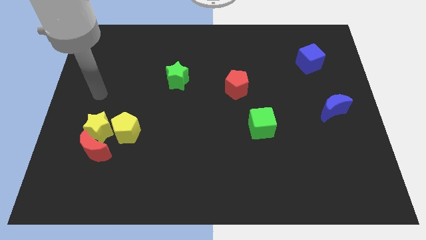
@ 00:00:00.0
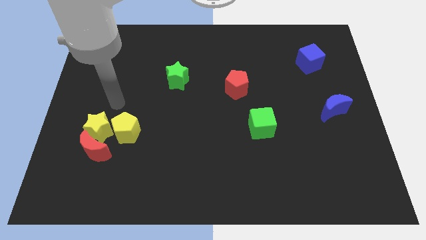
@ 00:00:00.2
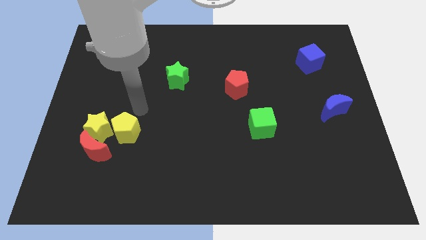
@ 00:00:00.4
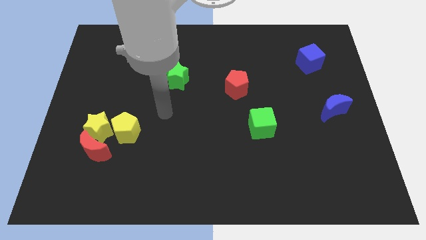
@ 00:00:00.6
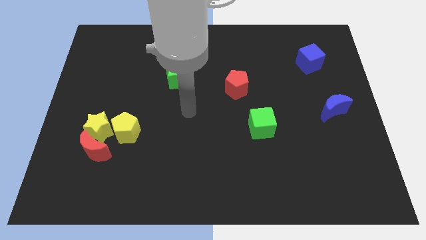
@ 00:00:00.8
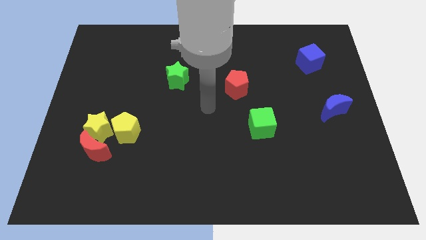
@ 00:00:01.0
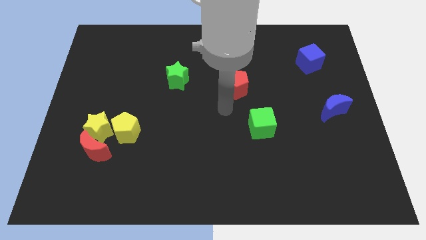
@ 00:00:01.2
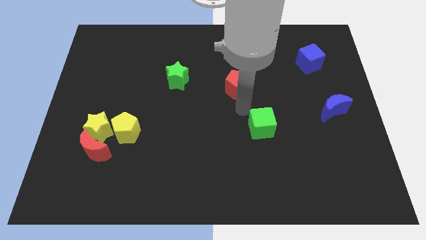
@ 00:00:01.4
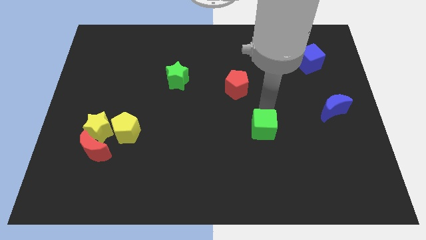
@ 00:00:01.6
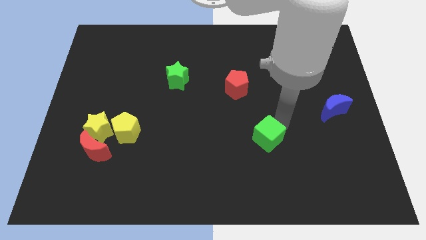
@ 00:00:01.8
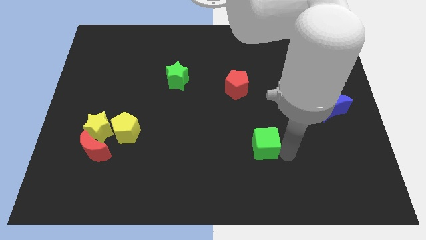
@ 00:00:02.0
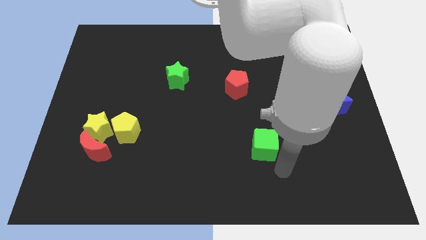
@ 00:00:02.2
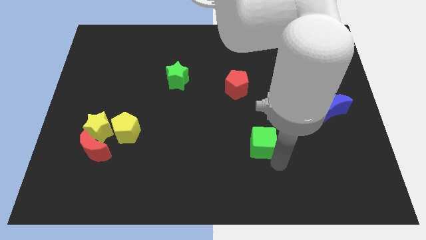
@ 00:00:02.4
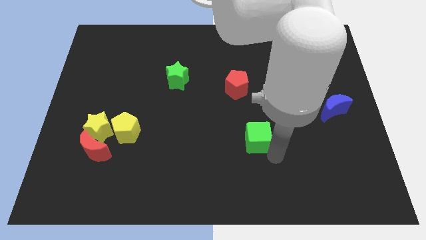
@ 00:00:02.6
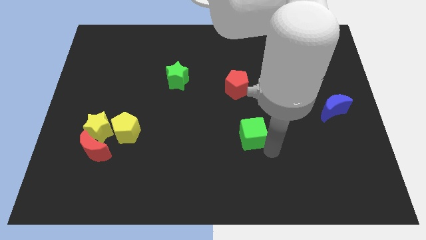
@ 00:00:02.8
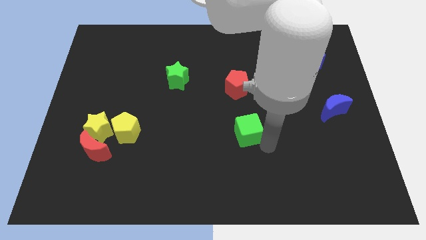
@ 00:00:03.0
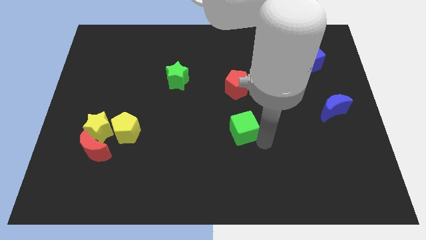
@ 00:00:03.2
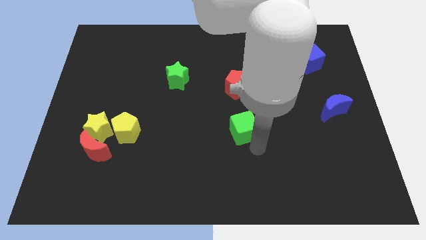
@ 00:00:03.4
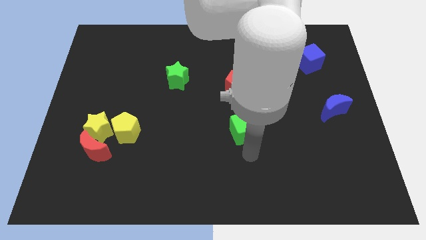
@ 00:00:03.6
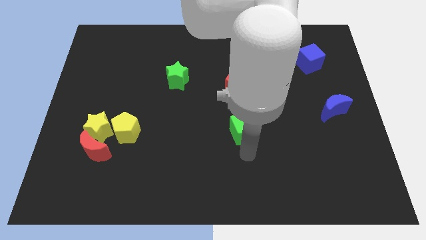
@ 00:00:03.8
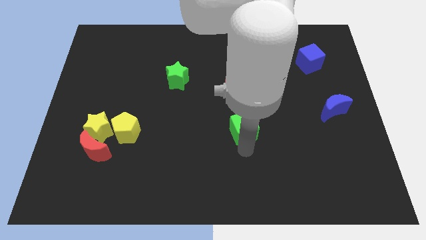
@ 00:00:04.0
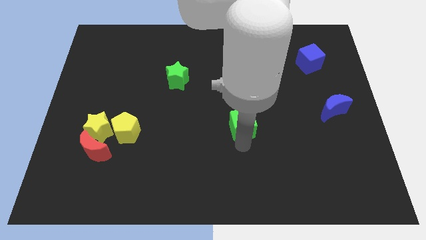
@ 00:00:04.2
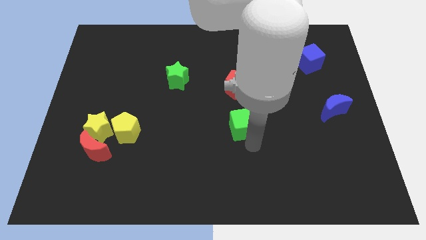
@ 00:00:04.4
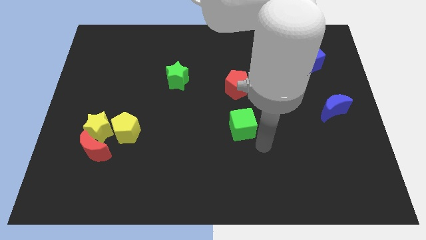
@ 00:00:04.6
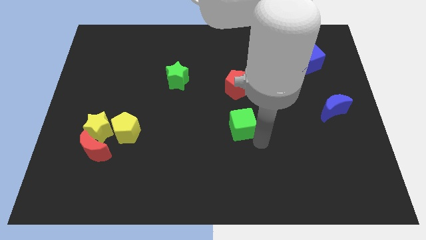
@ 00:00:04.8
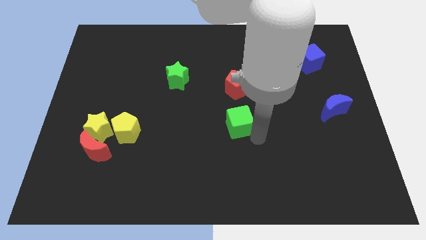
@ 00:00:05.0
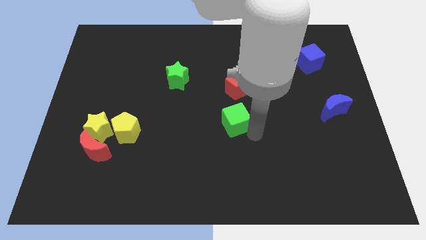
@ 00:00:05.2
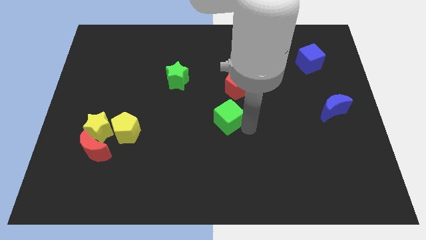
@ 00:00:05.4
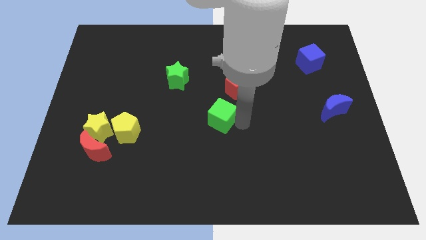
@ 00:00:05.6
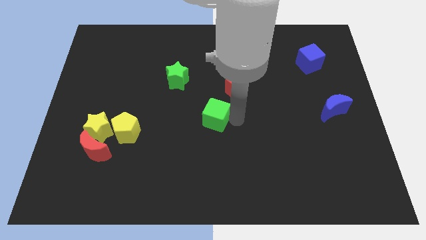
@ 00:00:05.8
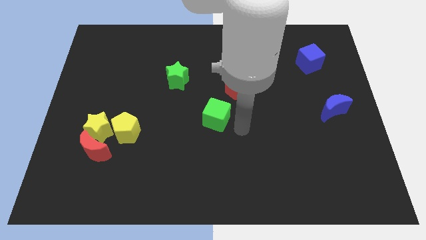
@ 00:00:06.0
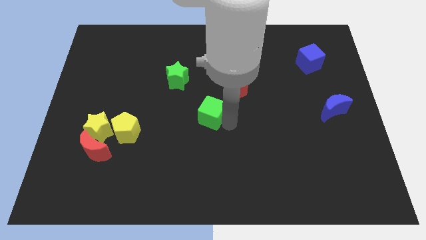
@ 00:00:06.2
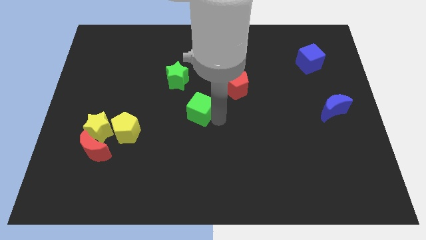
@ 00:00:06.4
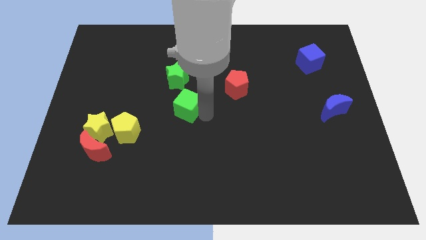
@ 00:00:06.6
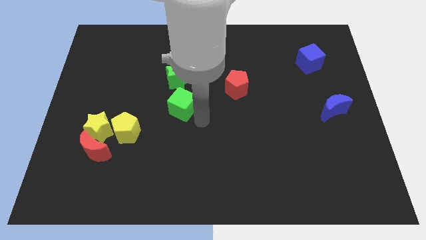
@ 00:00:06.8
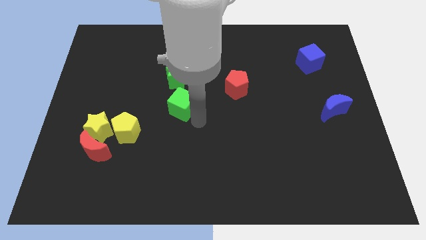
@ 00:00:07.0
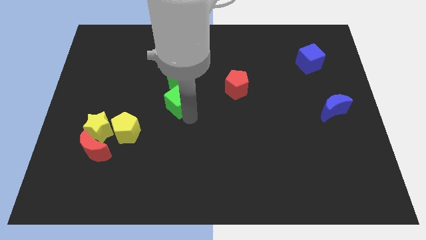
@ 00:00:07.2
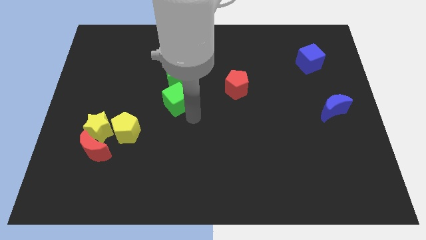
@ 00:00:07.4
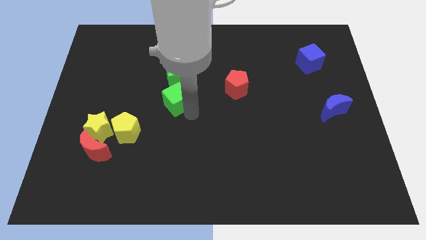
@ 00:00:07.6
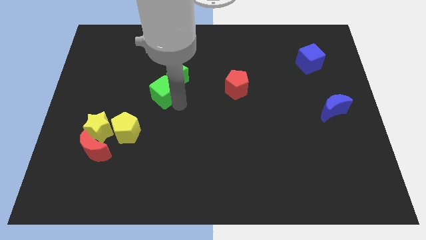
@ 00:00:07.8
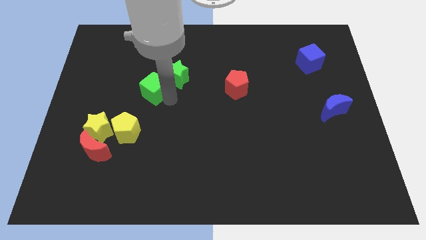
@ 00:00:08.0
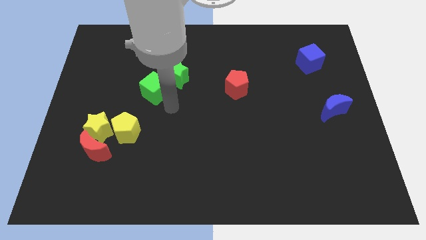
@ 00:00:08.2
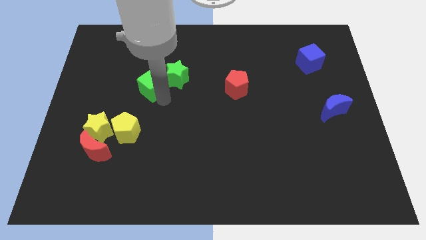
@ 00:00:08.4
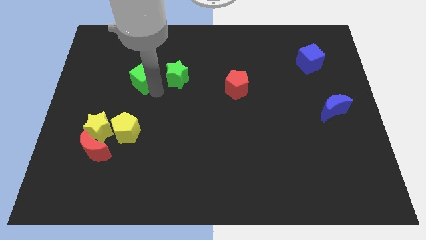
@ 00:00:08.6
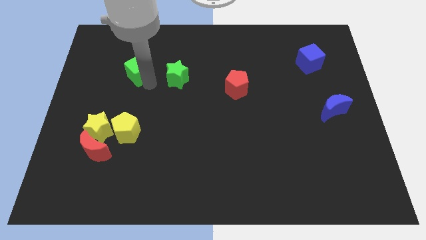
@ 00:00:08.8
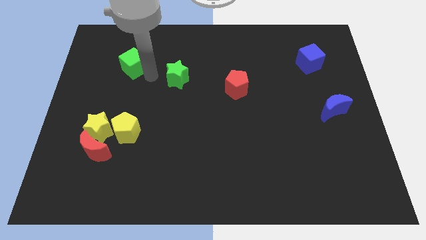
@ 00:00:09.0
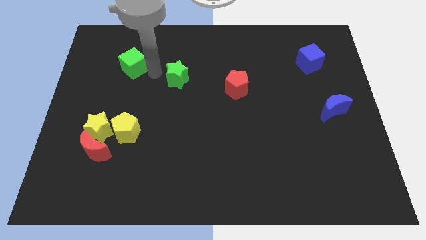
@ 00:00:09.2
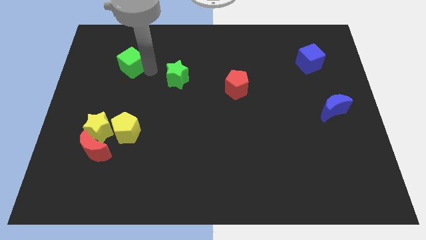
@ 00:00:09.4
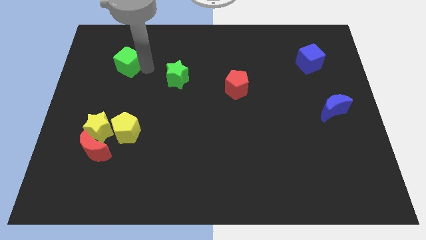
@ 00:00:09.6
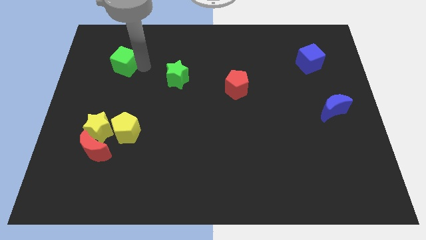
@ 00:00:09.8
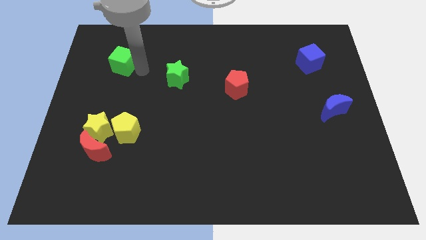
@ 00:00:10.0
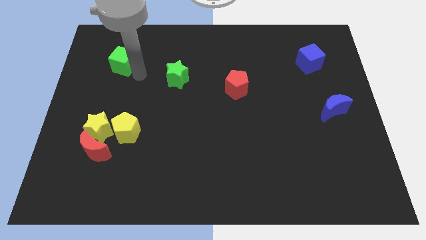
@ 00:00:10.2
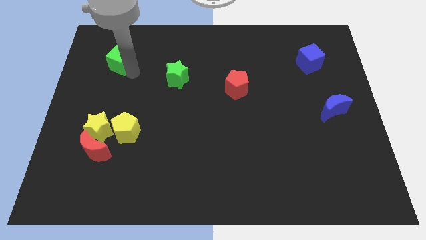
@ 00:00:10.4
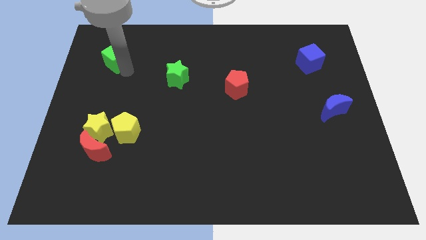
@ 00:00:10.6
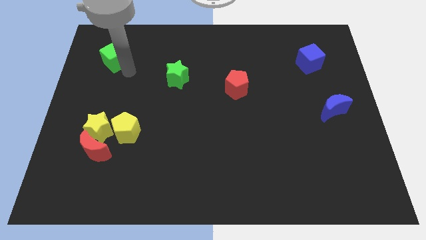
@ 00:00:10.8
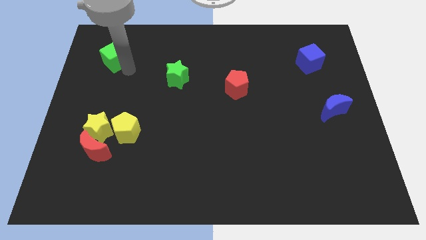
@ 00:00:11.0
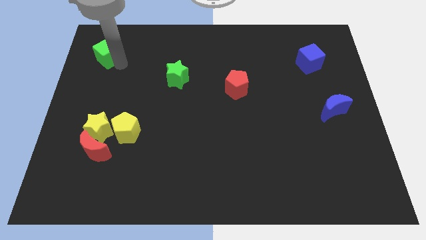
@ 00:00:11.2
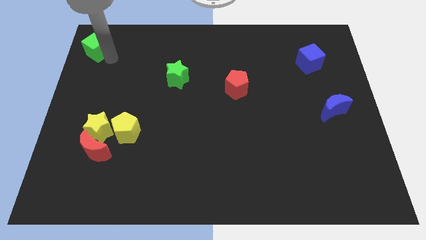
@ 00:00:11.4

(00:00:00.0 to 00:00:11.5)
push the green cube to the top left of the board
